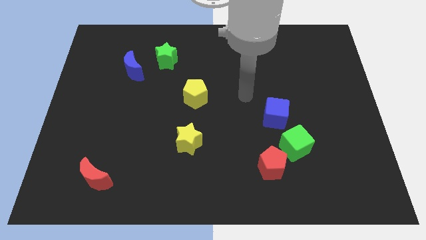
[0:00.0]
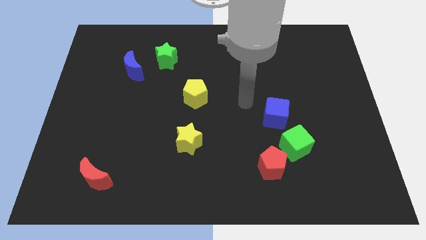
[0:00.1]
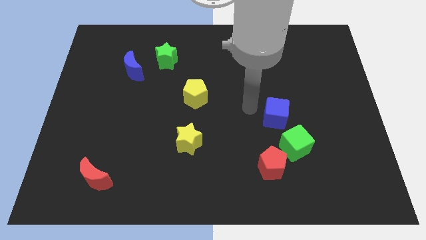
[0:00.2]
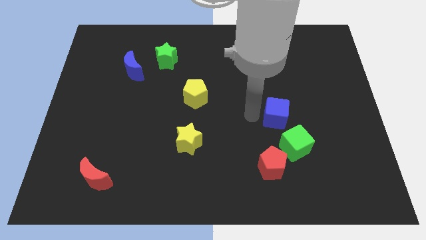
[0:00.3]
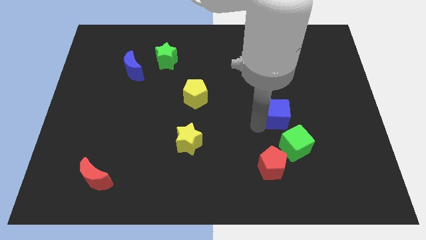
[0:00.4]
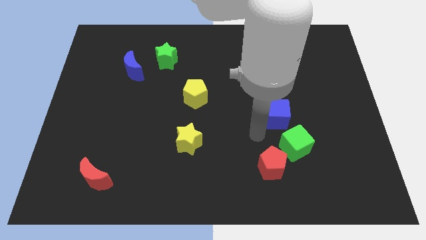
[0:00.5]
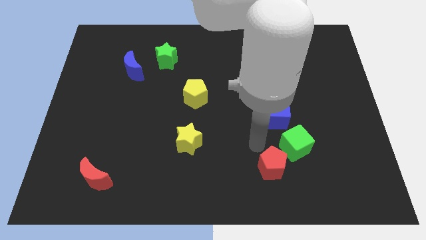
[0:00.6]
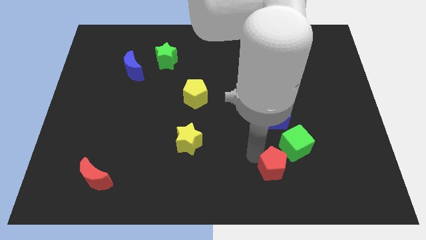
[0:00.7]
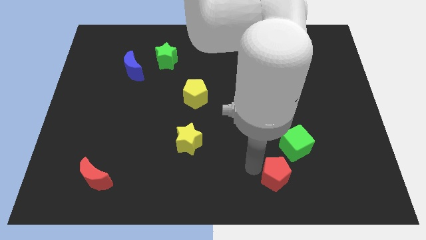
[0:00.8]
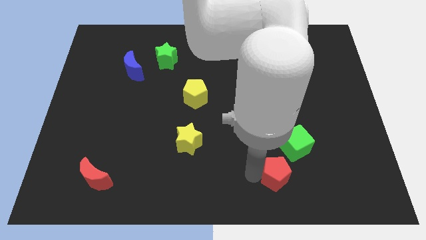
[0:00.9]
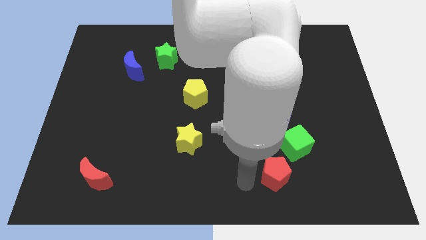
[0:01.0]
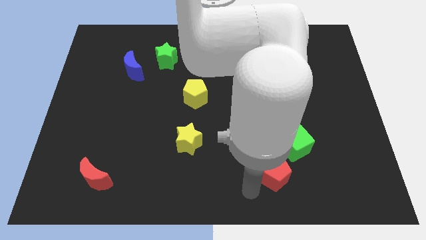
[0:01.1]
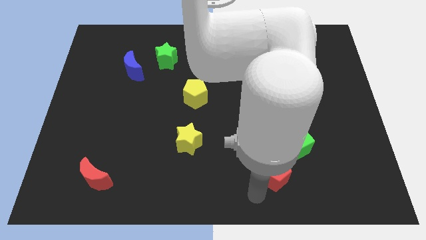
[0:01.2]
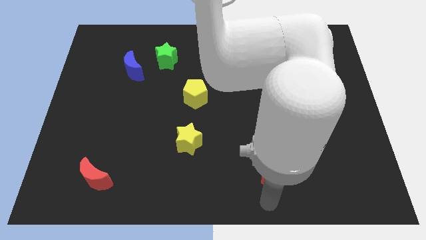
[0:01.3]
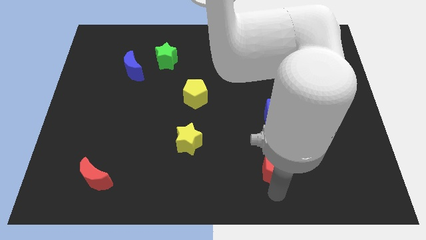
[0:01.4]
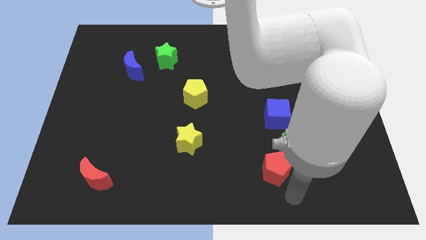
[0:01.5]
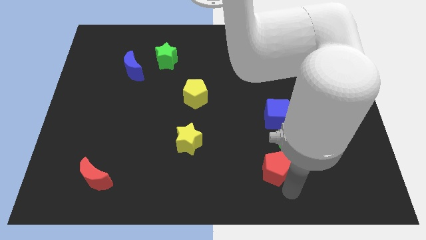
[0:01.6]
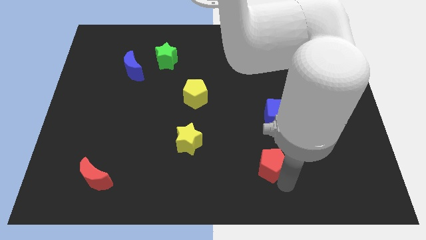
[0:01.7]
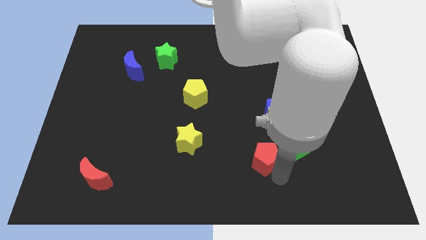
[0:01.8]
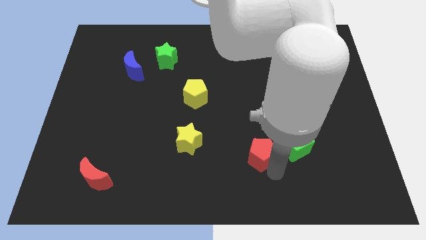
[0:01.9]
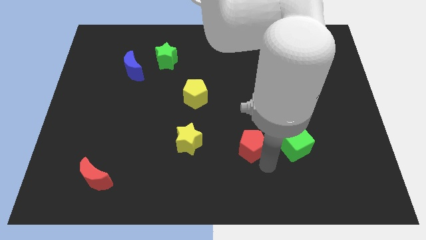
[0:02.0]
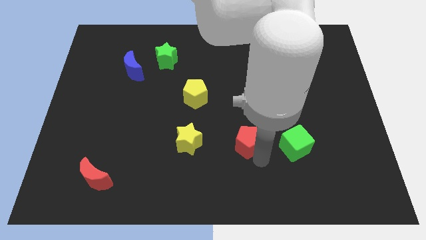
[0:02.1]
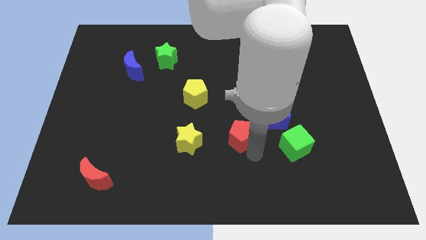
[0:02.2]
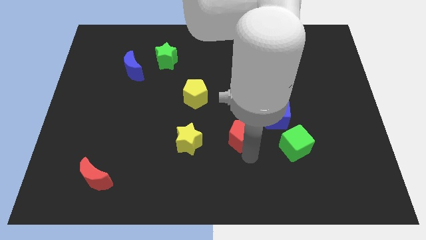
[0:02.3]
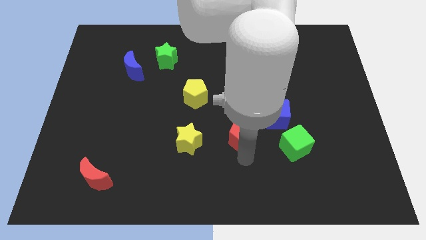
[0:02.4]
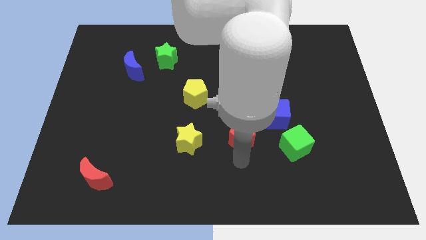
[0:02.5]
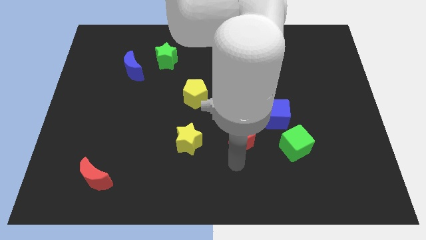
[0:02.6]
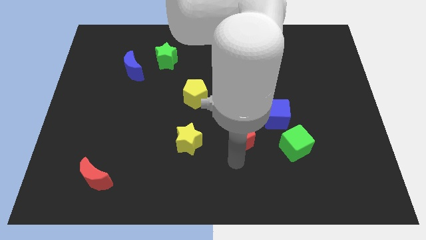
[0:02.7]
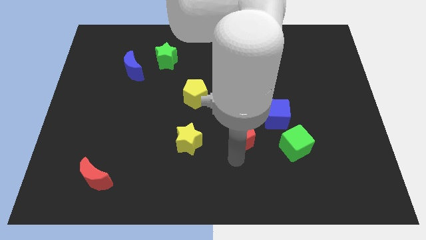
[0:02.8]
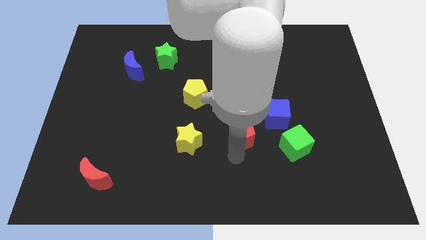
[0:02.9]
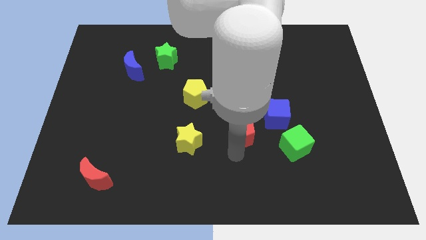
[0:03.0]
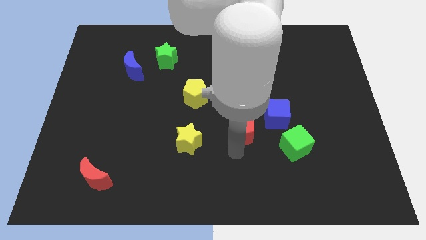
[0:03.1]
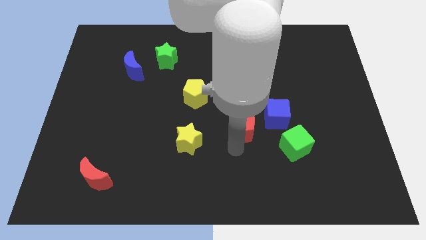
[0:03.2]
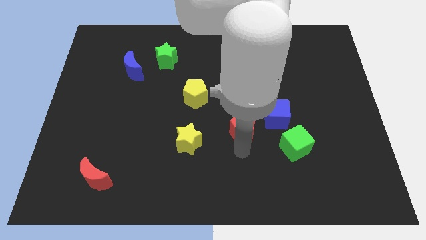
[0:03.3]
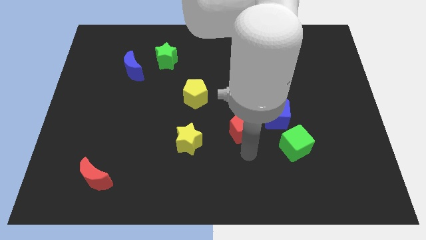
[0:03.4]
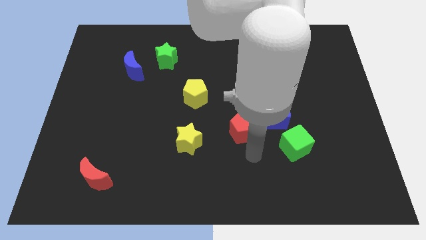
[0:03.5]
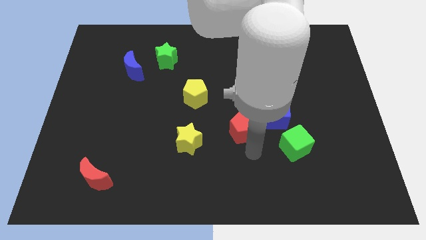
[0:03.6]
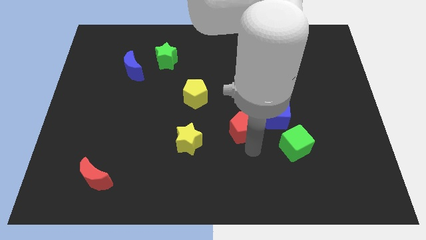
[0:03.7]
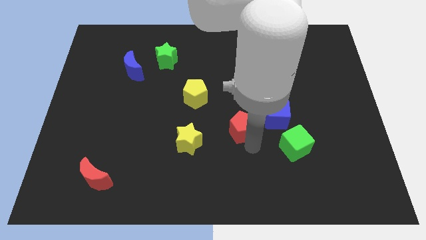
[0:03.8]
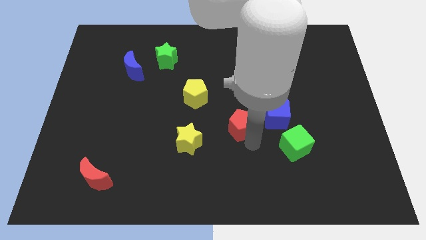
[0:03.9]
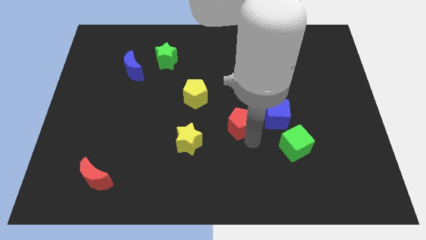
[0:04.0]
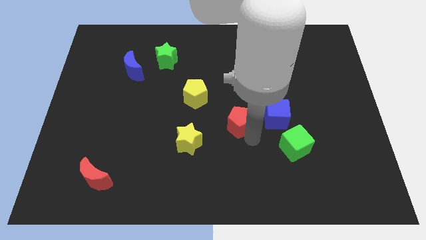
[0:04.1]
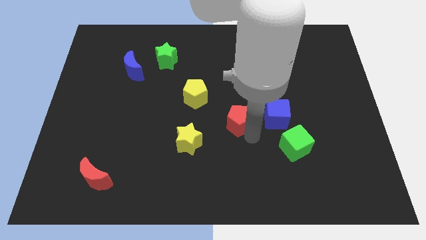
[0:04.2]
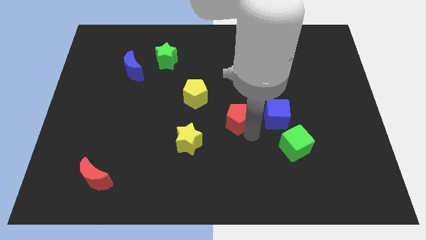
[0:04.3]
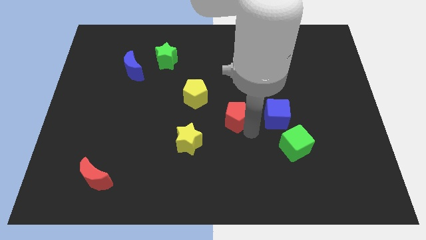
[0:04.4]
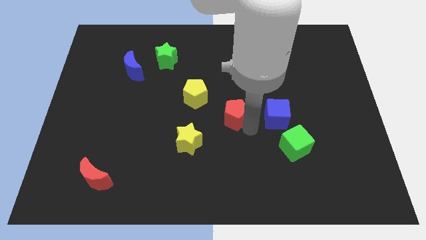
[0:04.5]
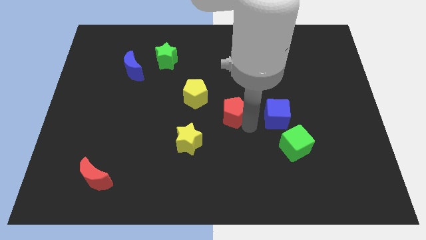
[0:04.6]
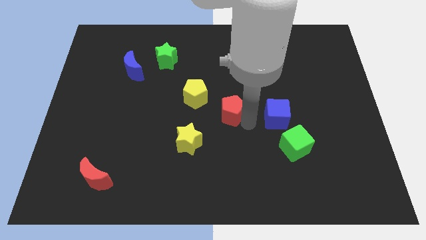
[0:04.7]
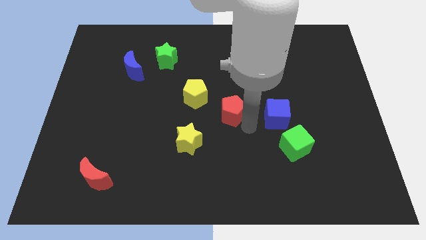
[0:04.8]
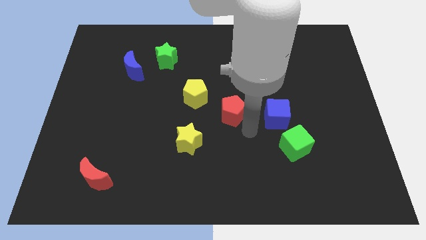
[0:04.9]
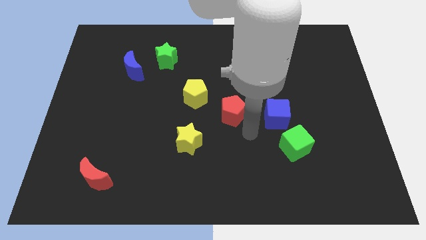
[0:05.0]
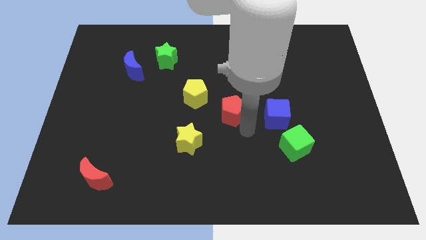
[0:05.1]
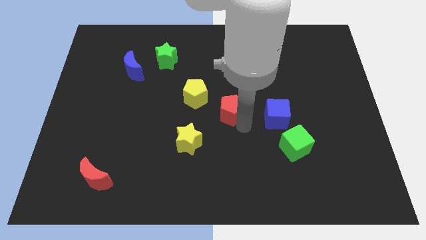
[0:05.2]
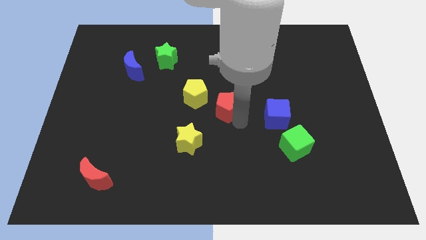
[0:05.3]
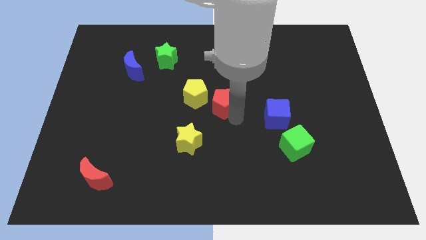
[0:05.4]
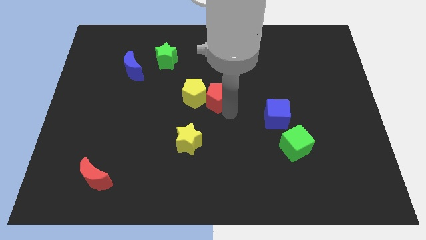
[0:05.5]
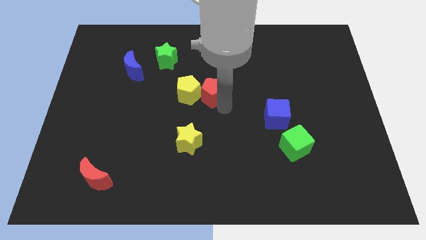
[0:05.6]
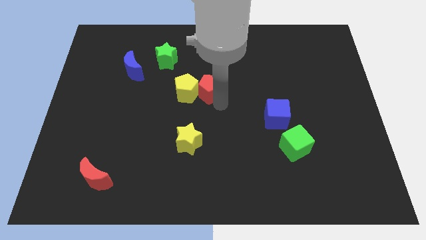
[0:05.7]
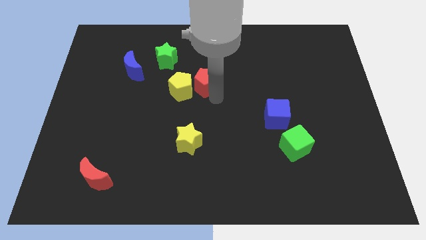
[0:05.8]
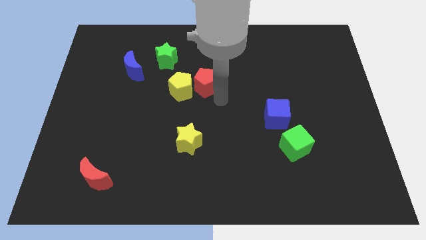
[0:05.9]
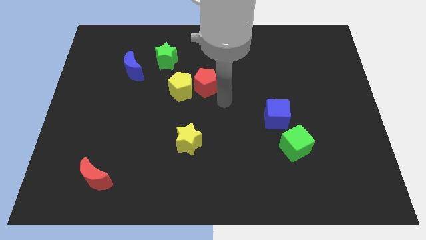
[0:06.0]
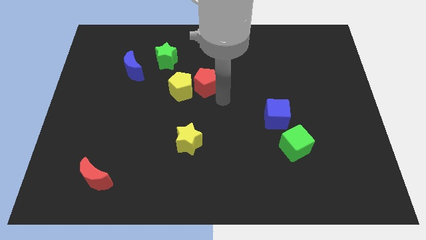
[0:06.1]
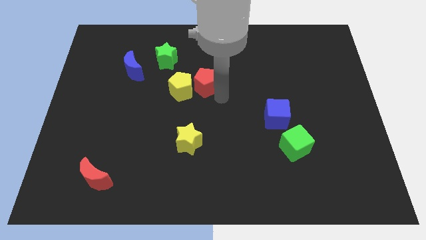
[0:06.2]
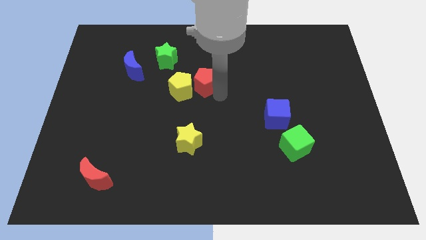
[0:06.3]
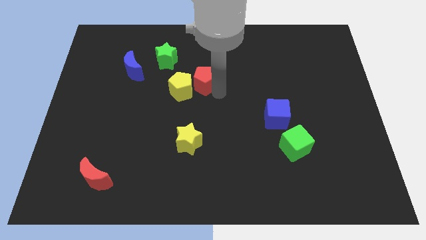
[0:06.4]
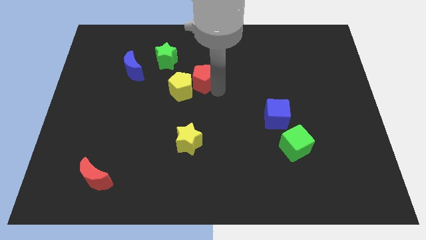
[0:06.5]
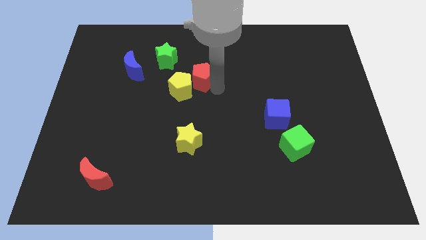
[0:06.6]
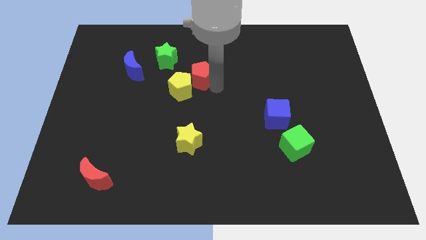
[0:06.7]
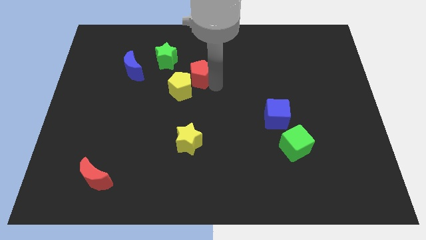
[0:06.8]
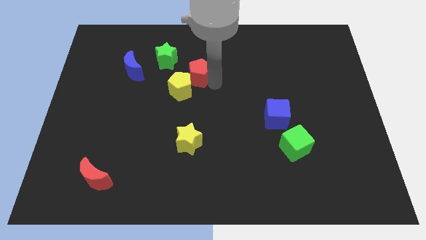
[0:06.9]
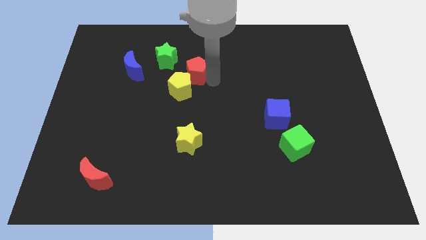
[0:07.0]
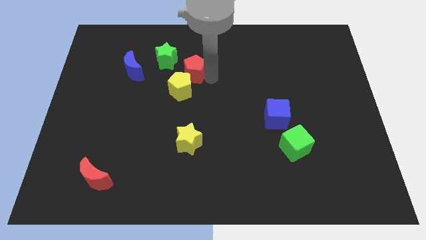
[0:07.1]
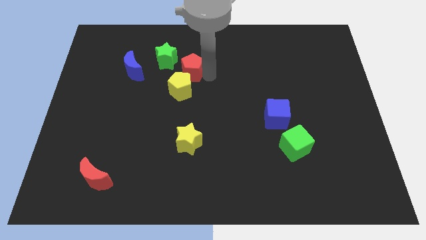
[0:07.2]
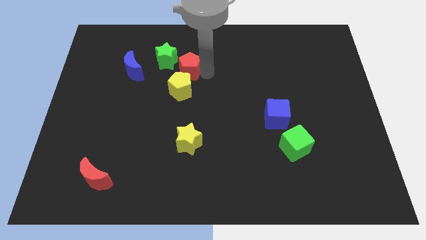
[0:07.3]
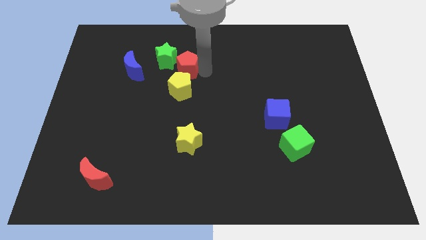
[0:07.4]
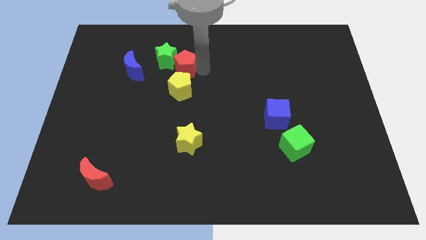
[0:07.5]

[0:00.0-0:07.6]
slide the red pentagon close to the green star
